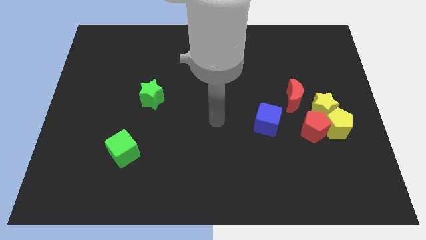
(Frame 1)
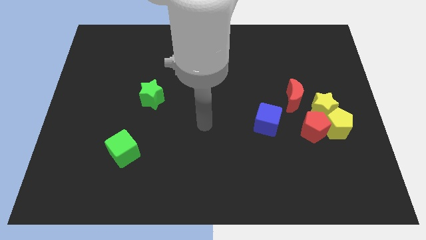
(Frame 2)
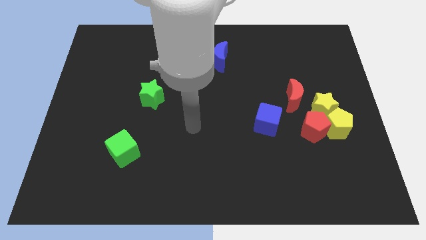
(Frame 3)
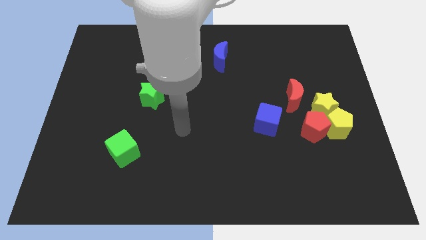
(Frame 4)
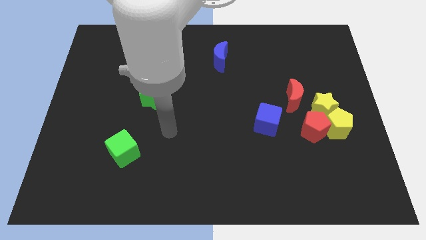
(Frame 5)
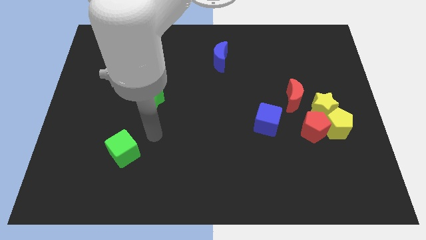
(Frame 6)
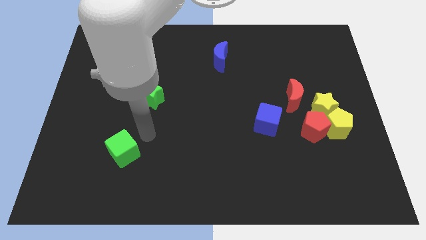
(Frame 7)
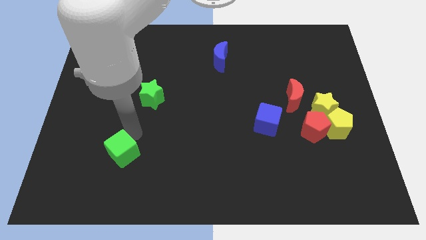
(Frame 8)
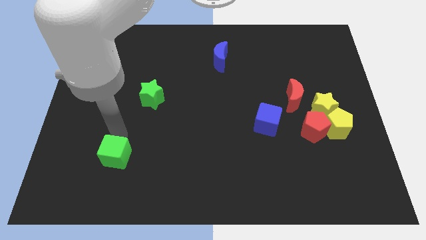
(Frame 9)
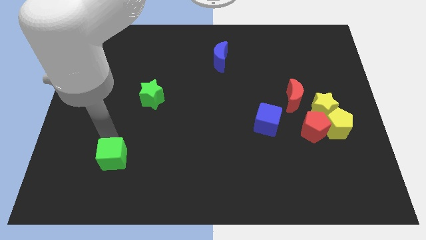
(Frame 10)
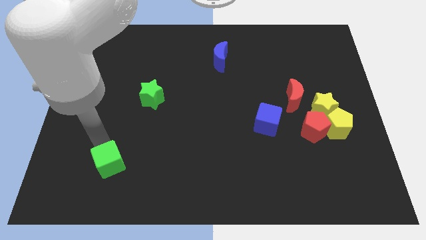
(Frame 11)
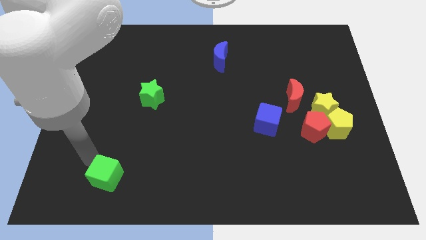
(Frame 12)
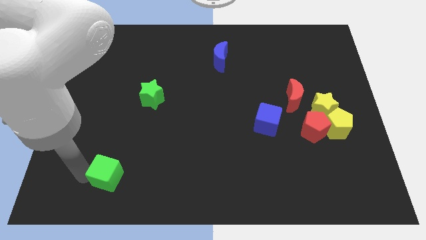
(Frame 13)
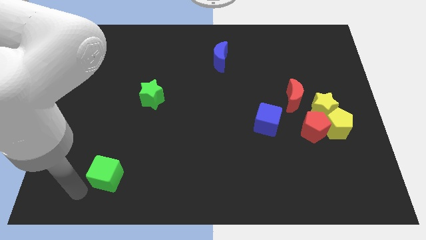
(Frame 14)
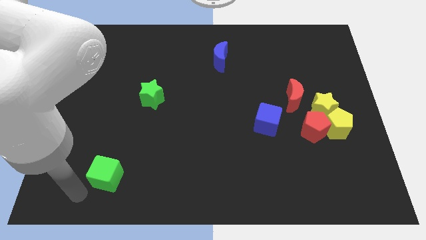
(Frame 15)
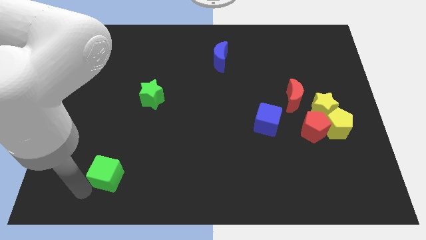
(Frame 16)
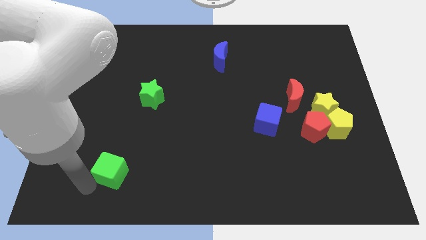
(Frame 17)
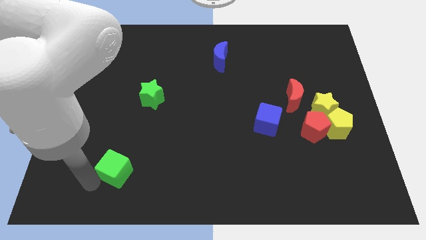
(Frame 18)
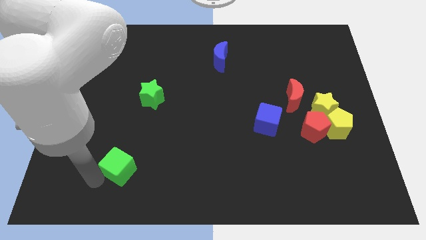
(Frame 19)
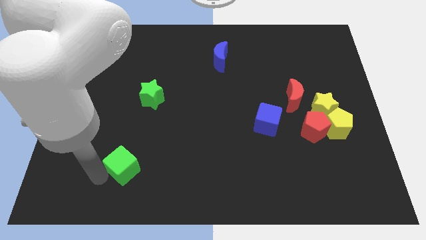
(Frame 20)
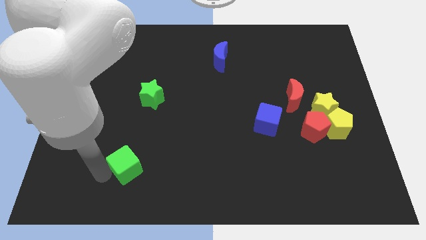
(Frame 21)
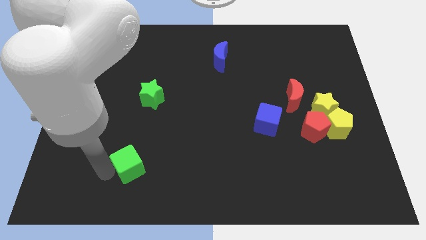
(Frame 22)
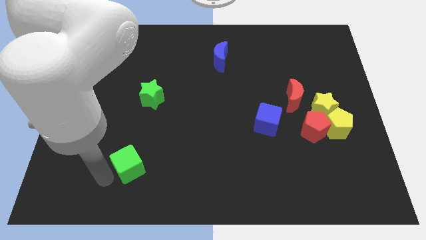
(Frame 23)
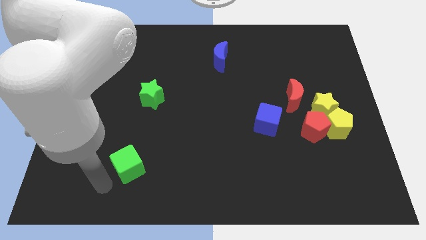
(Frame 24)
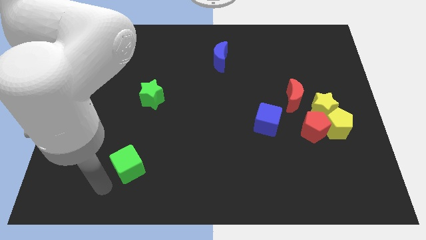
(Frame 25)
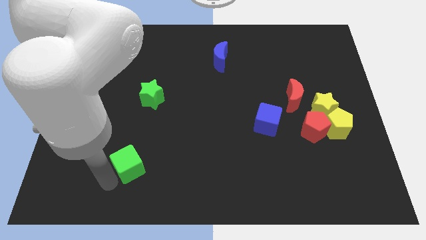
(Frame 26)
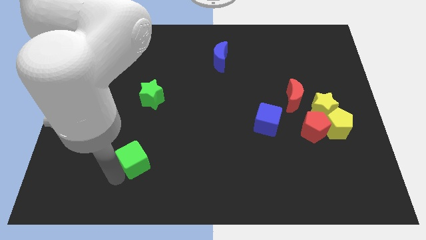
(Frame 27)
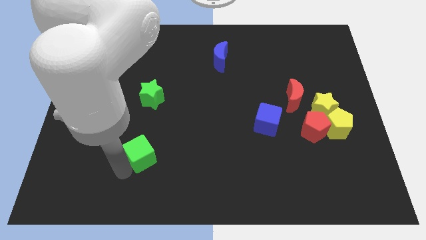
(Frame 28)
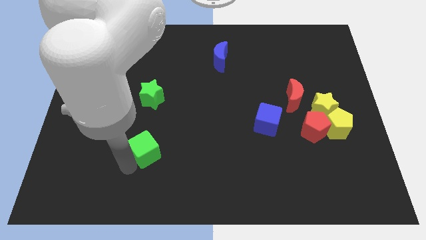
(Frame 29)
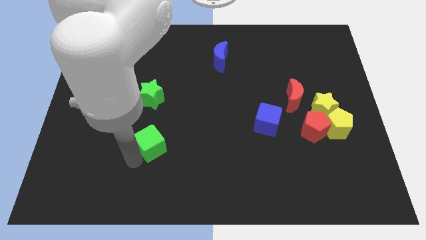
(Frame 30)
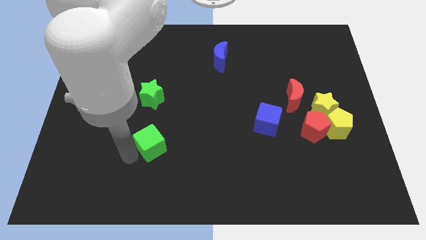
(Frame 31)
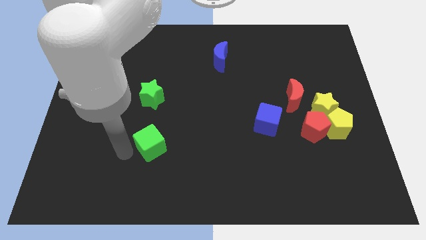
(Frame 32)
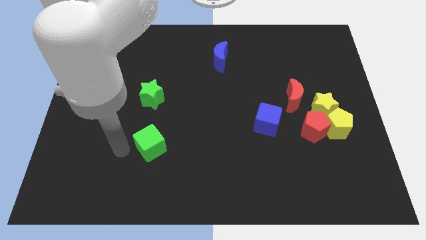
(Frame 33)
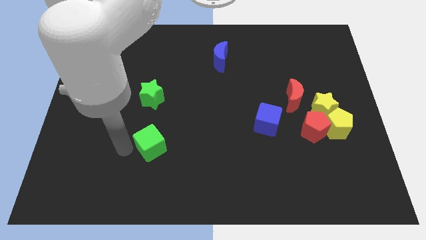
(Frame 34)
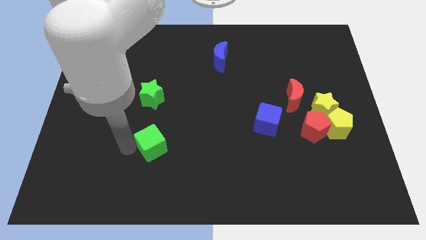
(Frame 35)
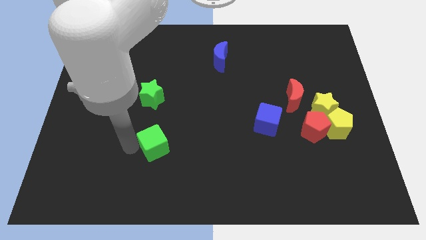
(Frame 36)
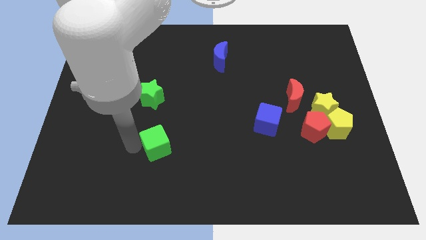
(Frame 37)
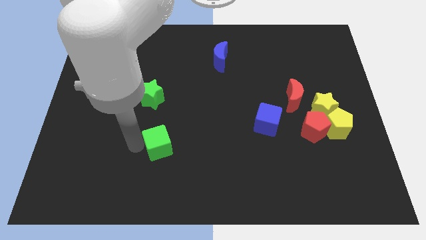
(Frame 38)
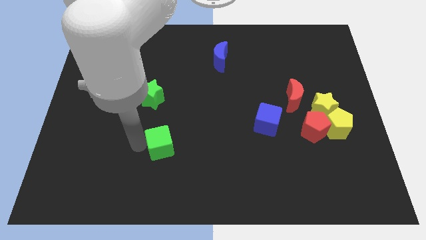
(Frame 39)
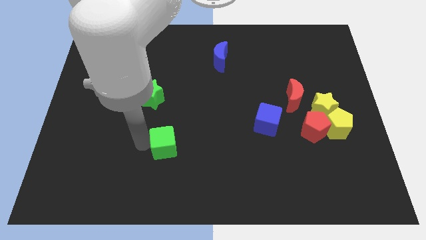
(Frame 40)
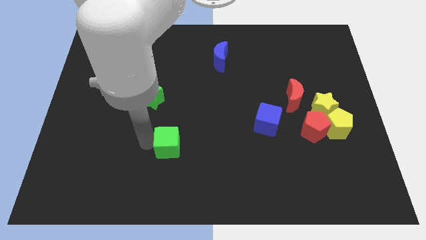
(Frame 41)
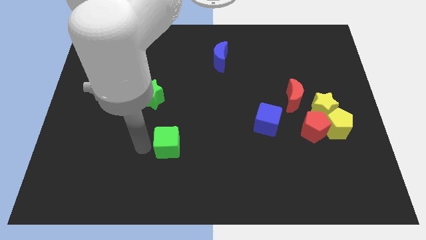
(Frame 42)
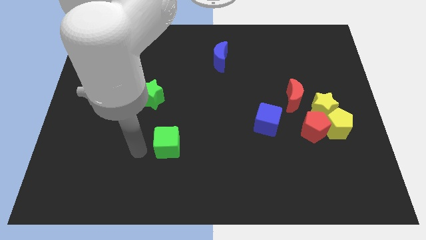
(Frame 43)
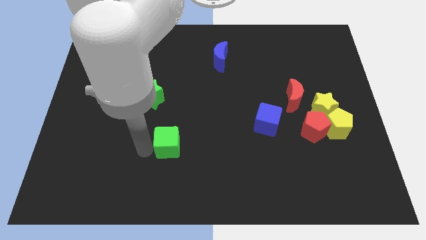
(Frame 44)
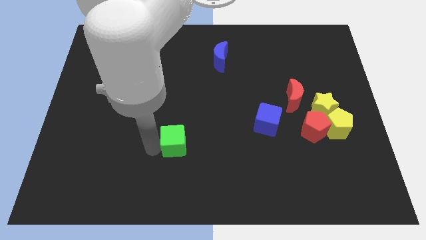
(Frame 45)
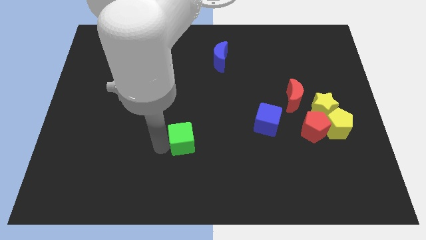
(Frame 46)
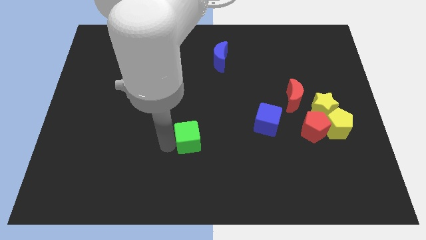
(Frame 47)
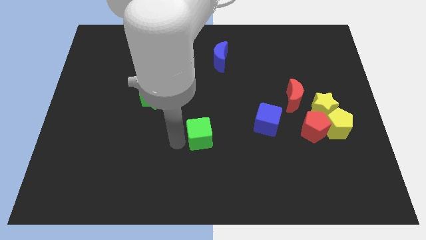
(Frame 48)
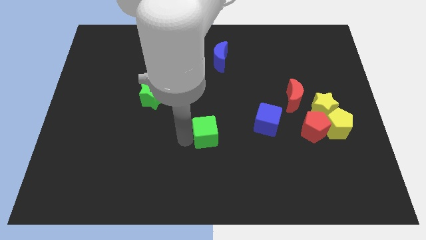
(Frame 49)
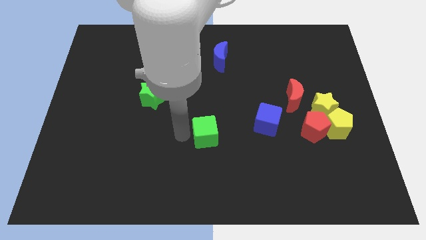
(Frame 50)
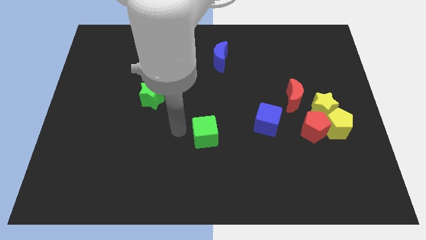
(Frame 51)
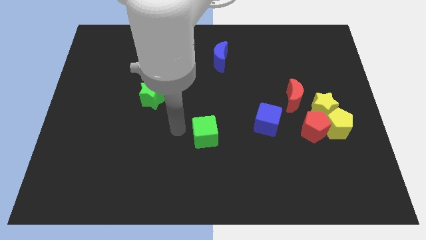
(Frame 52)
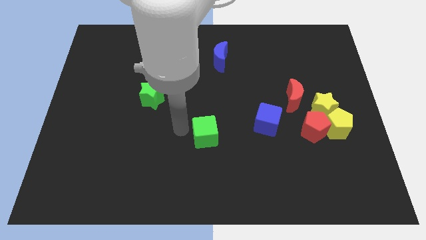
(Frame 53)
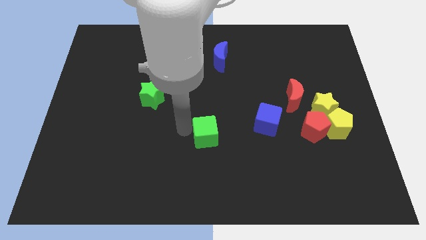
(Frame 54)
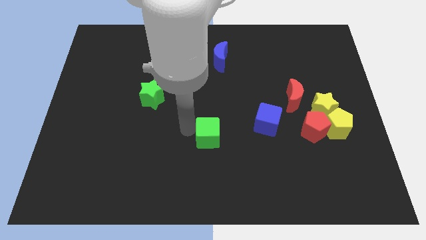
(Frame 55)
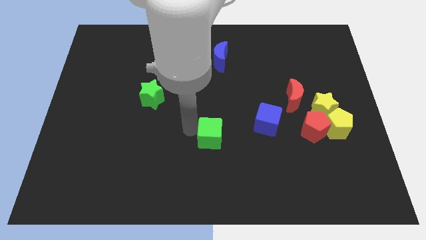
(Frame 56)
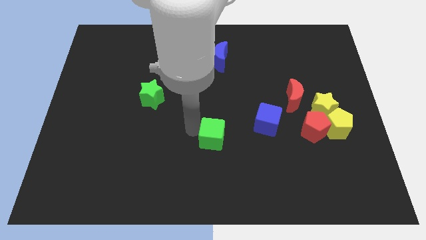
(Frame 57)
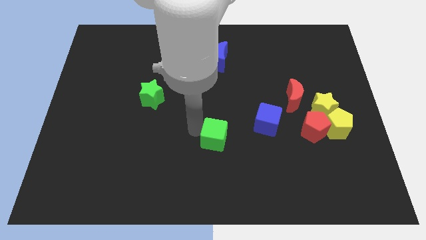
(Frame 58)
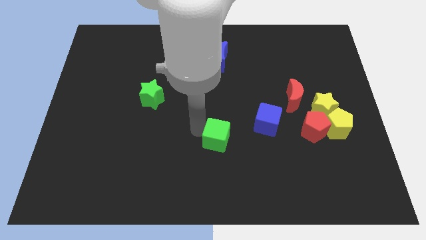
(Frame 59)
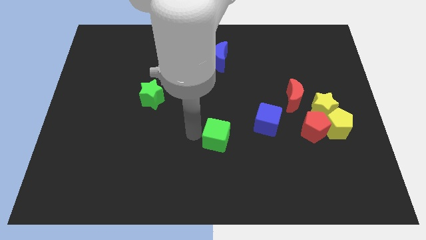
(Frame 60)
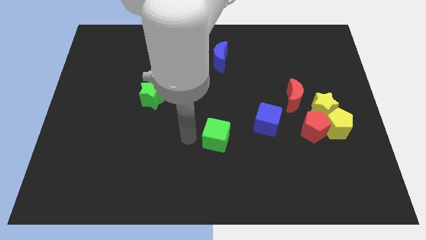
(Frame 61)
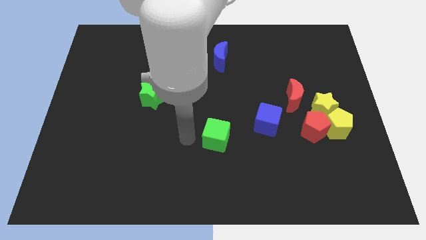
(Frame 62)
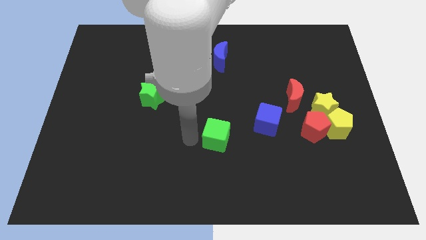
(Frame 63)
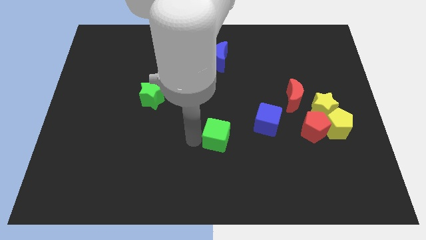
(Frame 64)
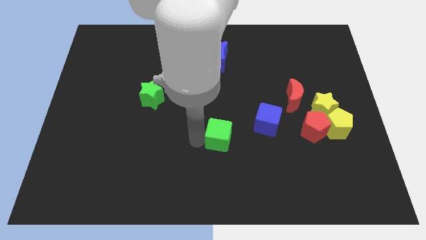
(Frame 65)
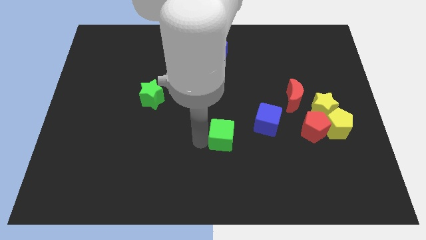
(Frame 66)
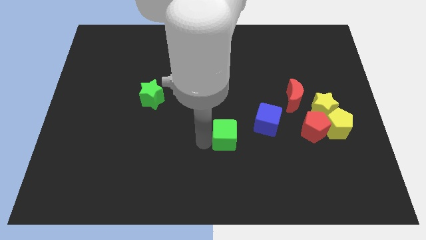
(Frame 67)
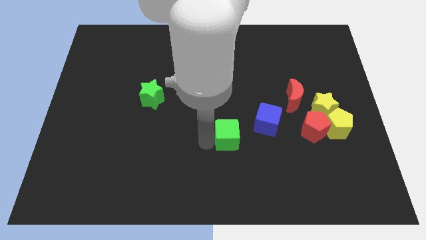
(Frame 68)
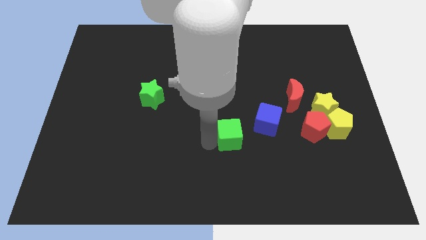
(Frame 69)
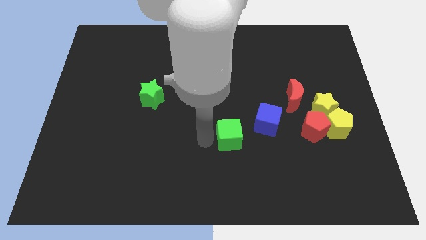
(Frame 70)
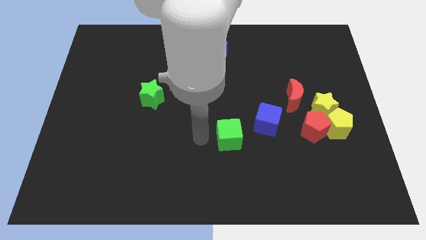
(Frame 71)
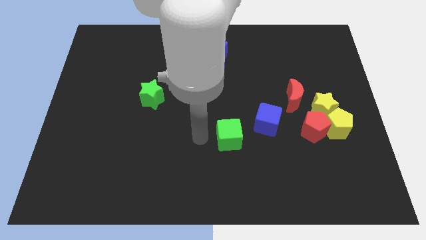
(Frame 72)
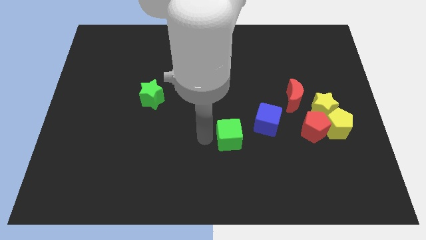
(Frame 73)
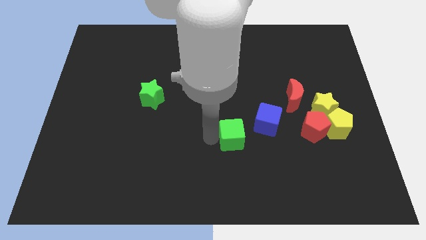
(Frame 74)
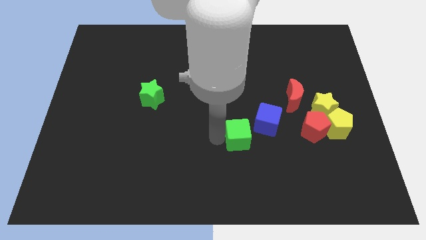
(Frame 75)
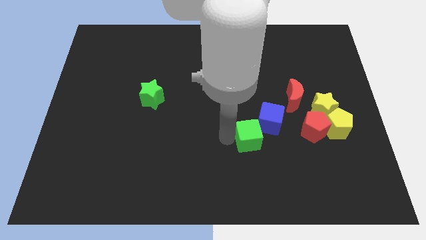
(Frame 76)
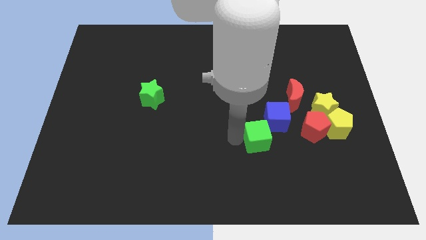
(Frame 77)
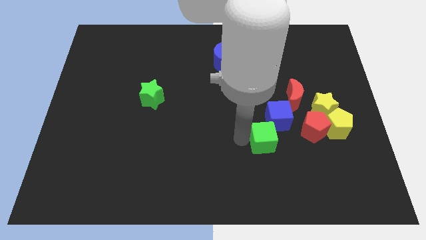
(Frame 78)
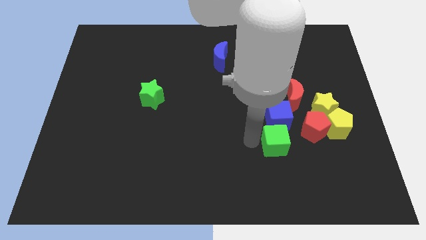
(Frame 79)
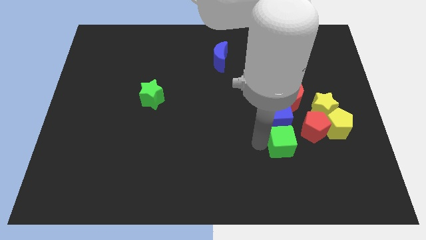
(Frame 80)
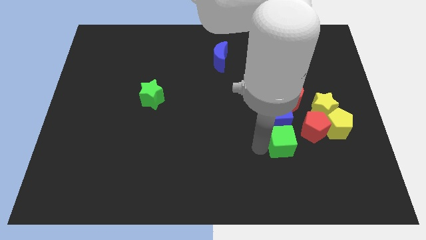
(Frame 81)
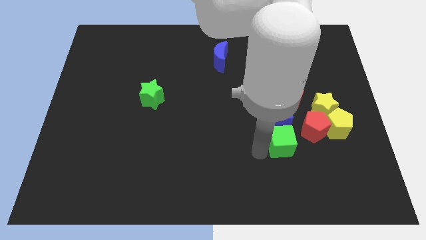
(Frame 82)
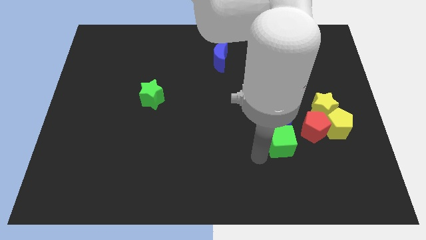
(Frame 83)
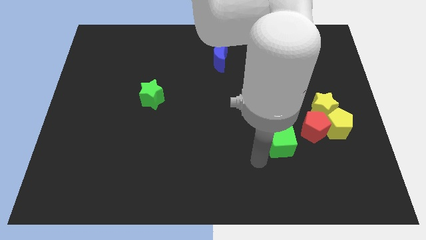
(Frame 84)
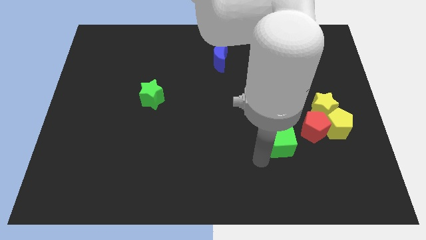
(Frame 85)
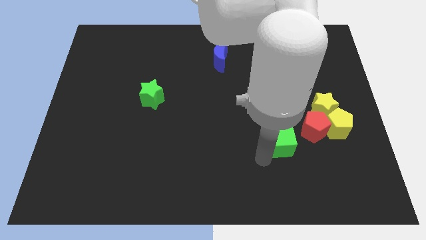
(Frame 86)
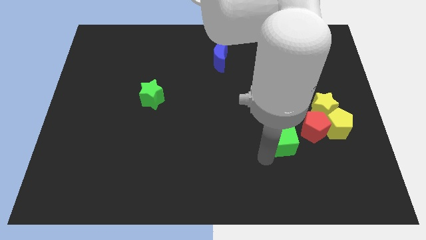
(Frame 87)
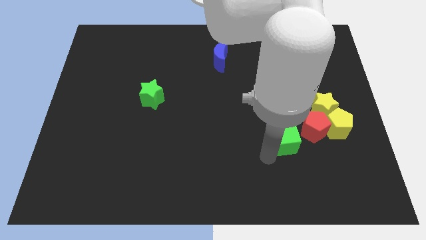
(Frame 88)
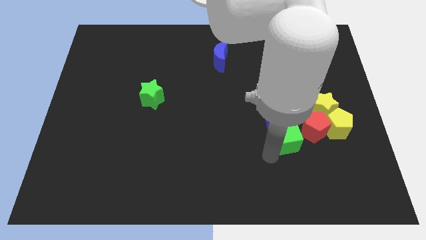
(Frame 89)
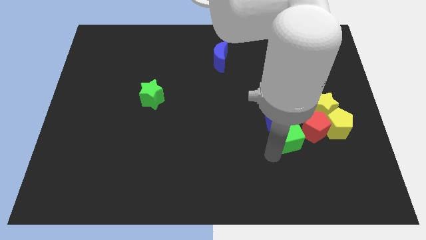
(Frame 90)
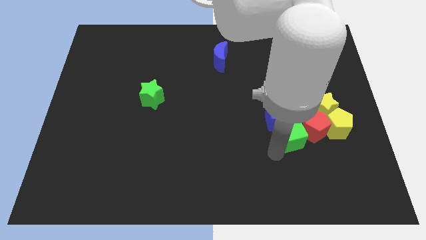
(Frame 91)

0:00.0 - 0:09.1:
push the green cube close to the red pentagon
